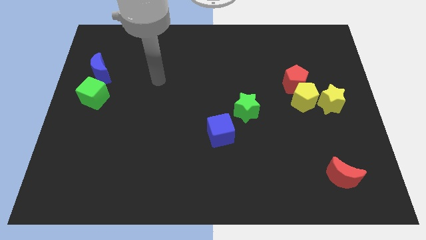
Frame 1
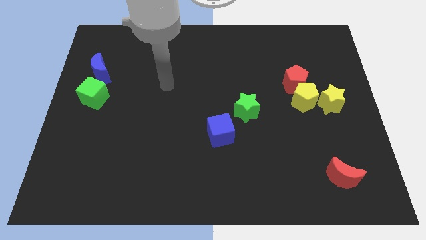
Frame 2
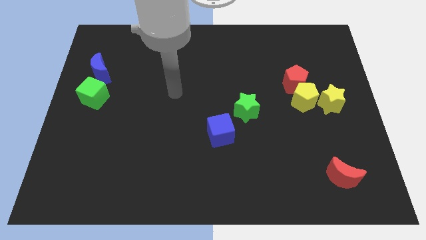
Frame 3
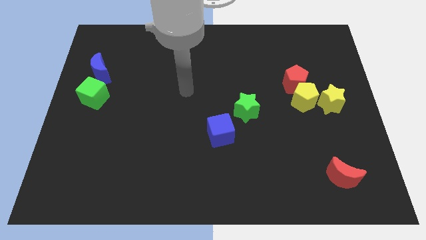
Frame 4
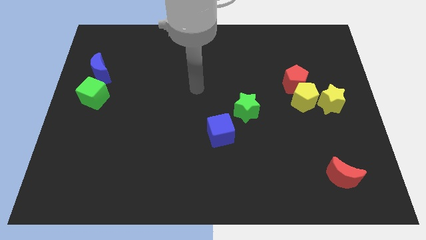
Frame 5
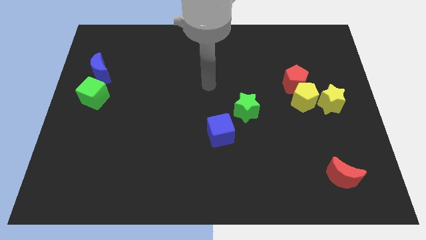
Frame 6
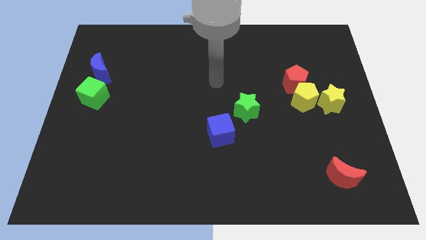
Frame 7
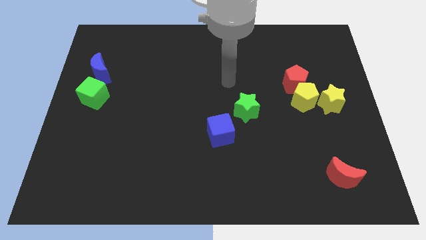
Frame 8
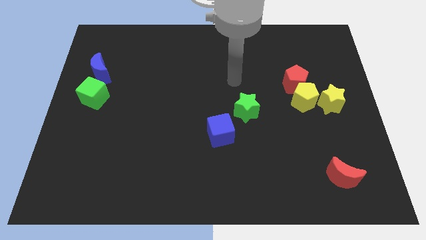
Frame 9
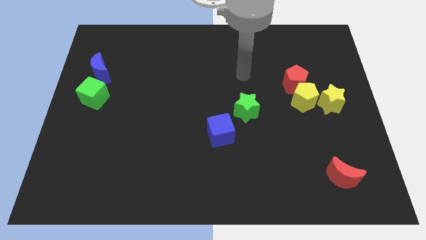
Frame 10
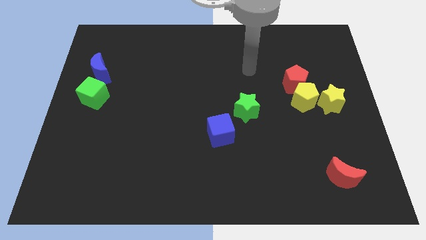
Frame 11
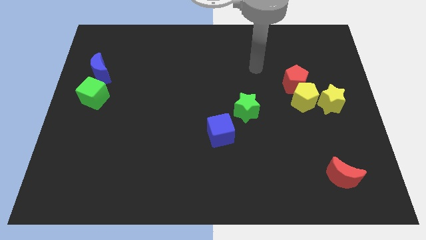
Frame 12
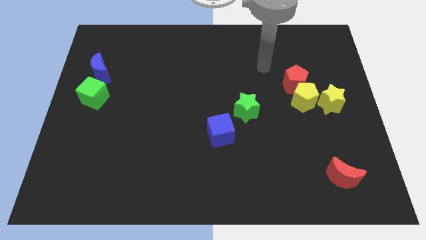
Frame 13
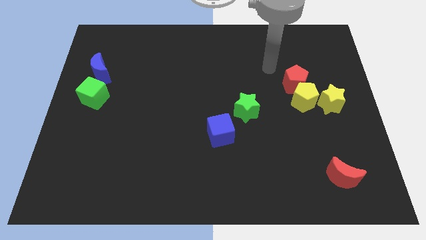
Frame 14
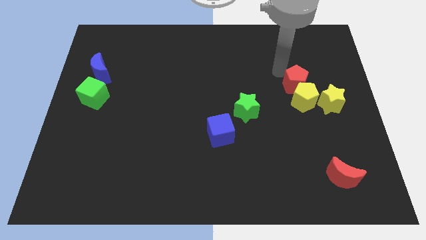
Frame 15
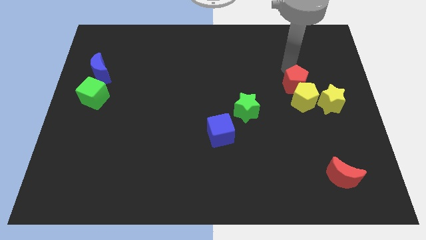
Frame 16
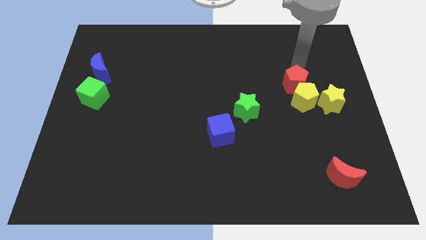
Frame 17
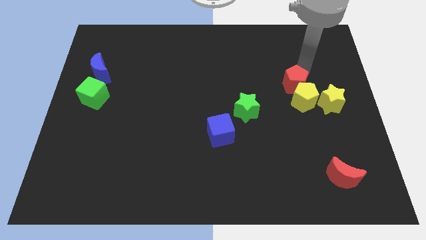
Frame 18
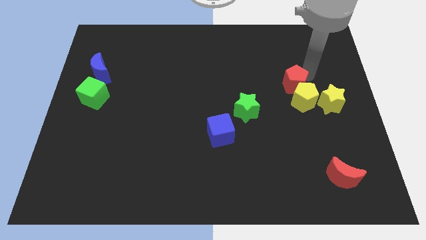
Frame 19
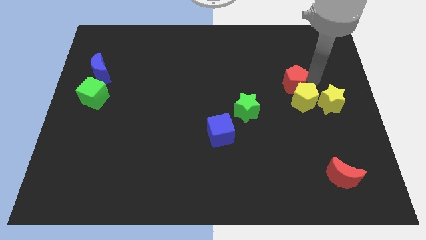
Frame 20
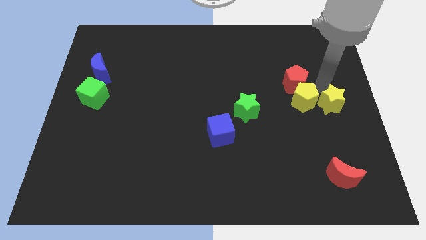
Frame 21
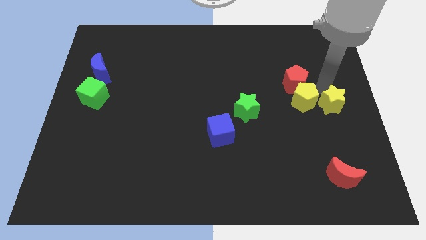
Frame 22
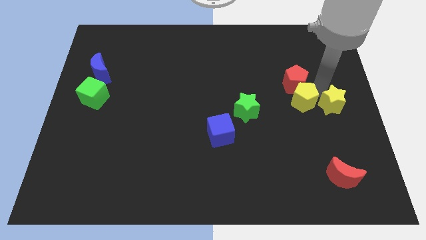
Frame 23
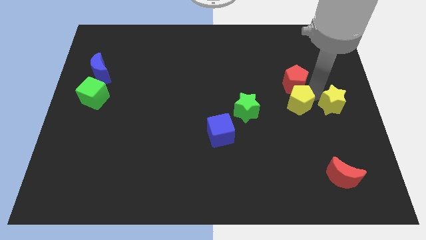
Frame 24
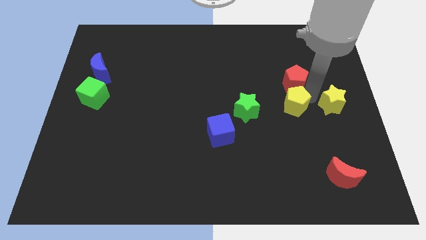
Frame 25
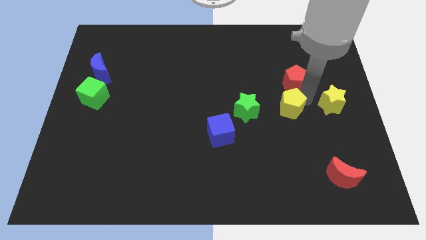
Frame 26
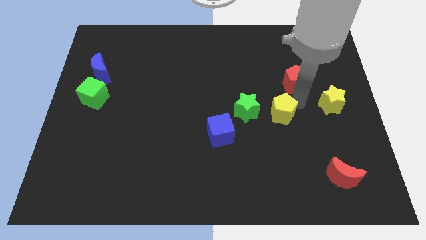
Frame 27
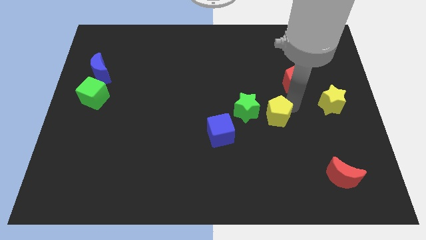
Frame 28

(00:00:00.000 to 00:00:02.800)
slightly slide the yellow pentagon diagonally down and left

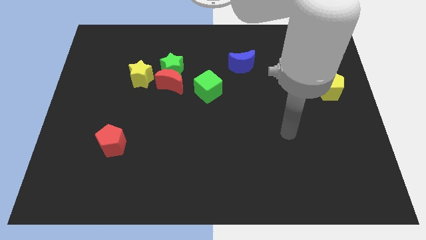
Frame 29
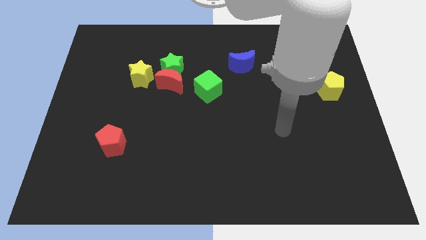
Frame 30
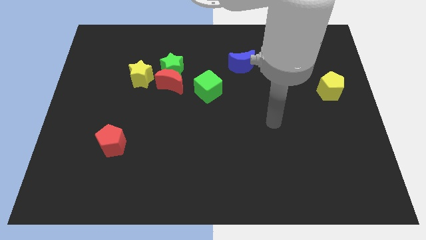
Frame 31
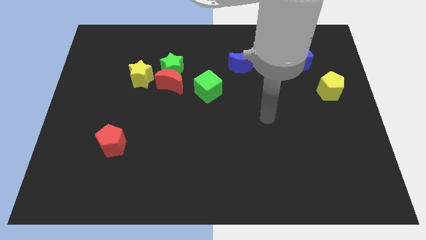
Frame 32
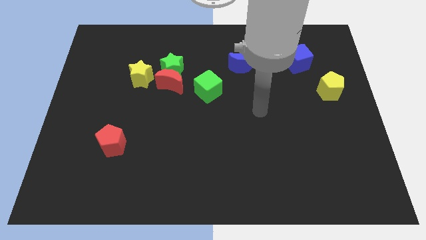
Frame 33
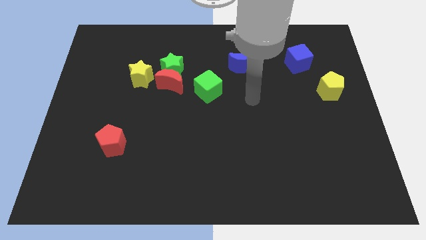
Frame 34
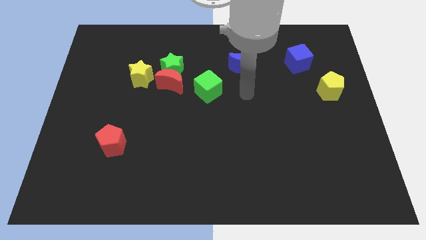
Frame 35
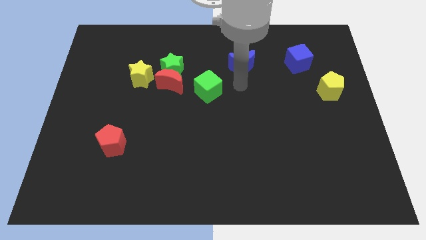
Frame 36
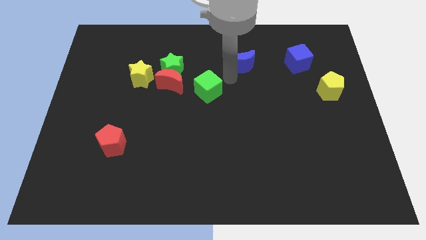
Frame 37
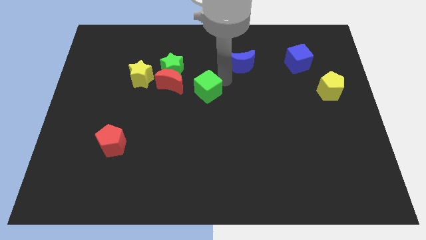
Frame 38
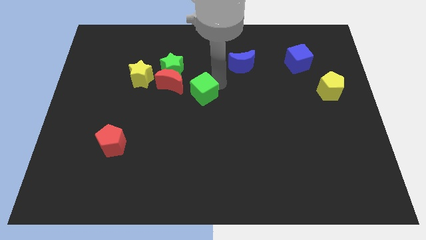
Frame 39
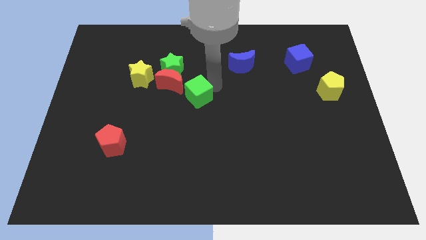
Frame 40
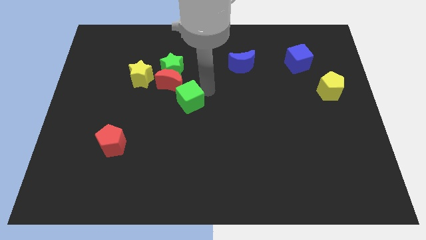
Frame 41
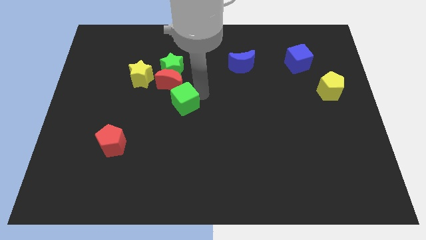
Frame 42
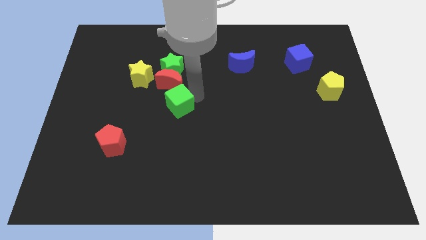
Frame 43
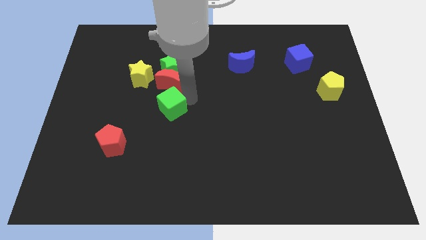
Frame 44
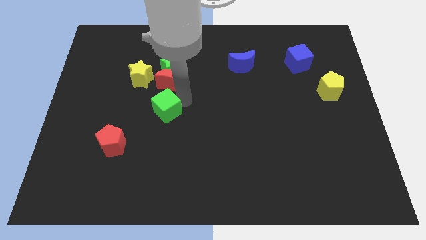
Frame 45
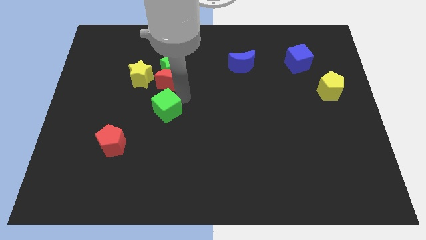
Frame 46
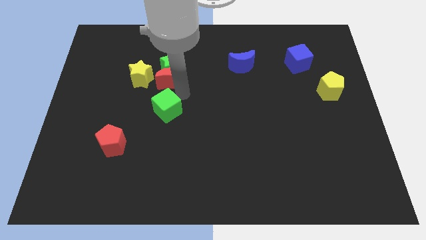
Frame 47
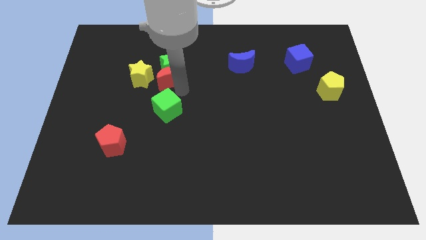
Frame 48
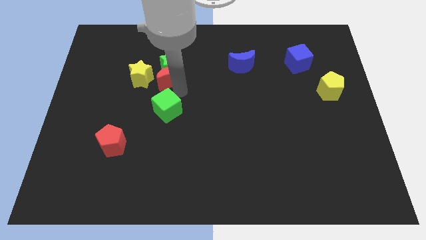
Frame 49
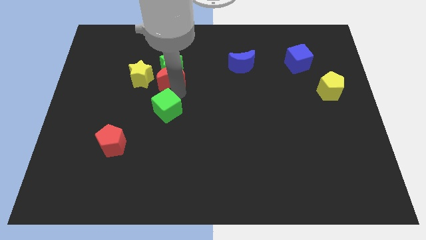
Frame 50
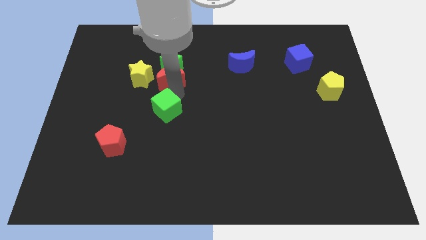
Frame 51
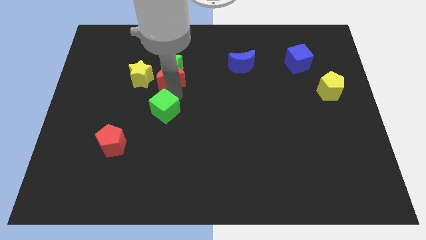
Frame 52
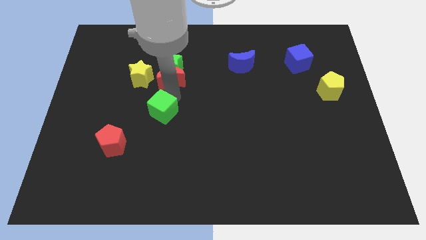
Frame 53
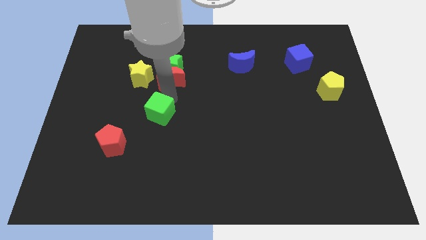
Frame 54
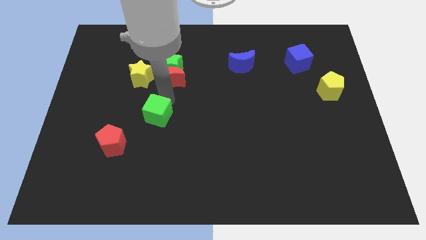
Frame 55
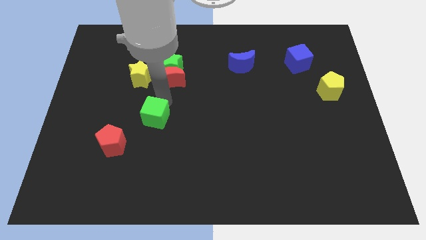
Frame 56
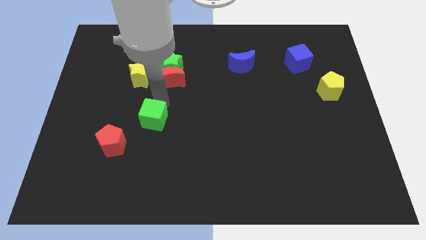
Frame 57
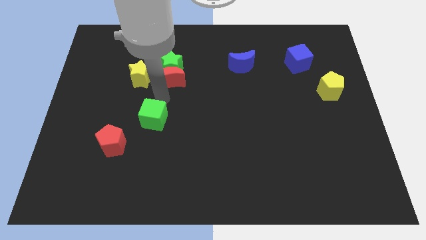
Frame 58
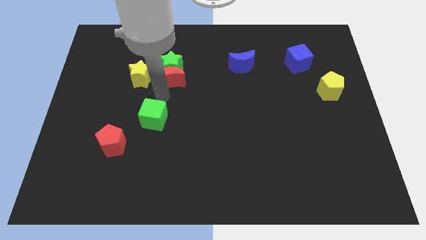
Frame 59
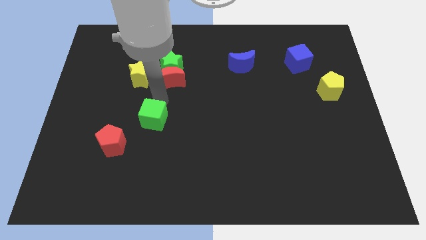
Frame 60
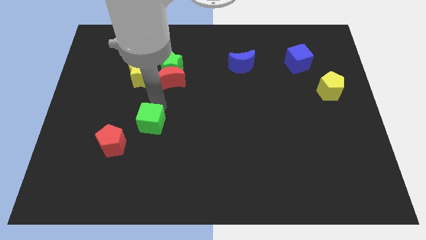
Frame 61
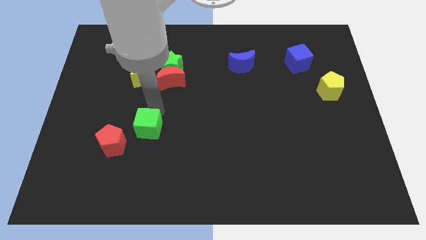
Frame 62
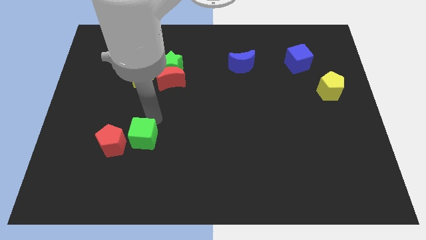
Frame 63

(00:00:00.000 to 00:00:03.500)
slide the green cube diagonally downwards and to the left

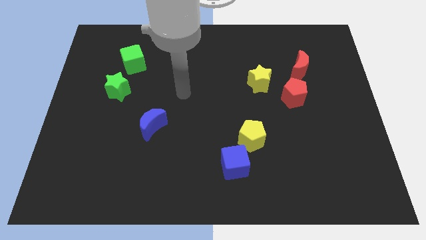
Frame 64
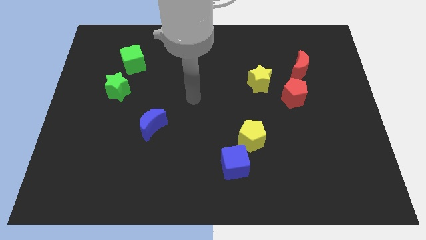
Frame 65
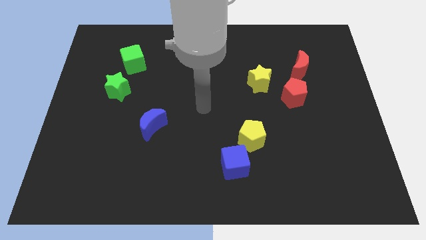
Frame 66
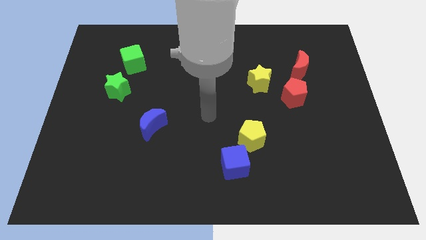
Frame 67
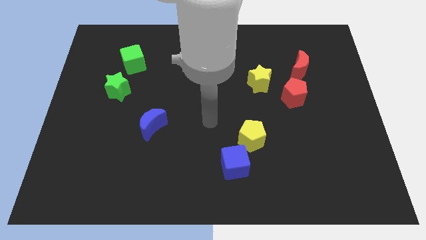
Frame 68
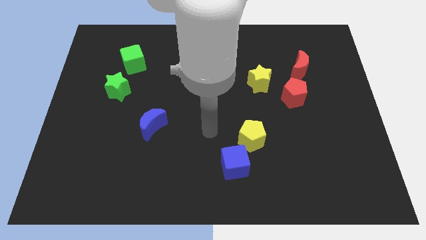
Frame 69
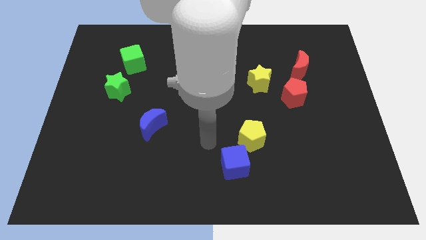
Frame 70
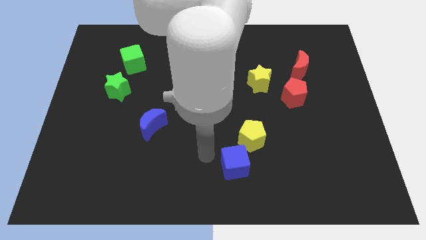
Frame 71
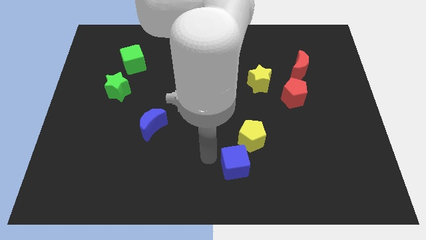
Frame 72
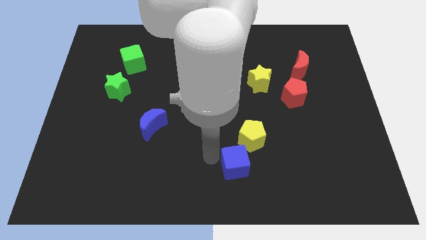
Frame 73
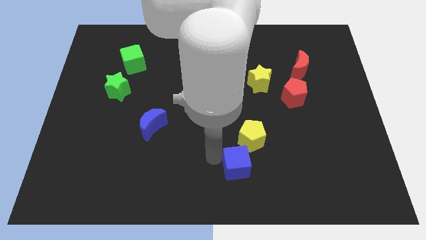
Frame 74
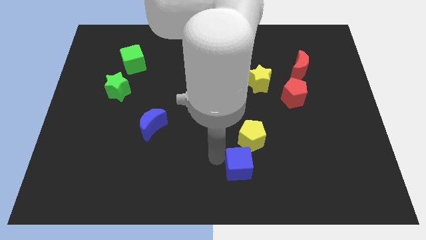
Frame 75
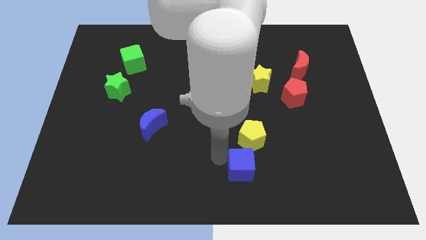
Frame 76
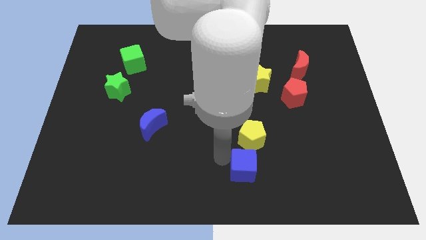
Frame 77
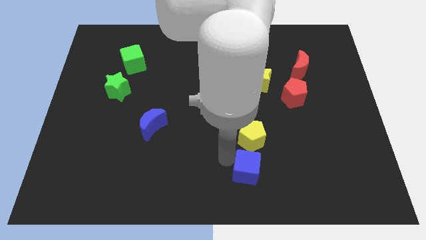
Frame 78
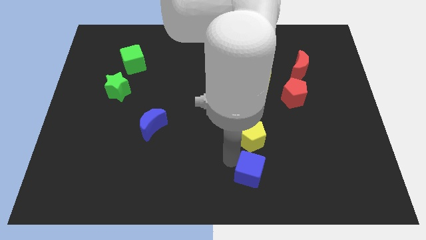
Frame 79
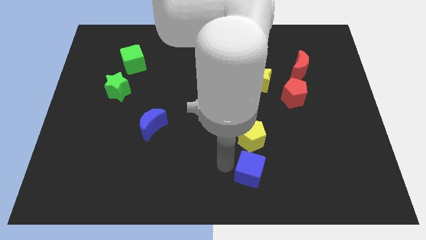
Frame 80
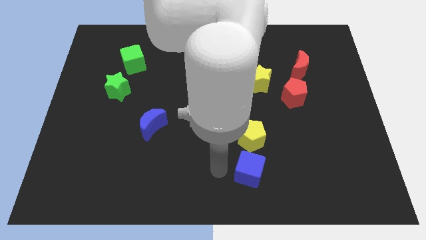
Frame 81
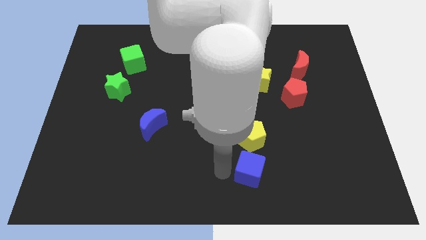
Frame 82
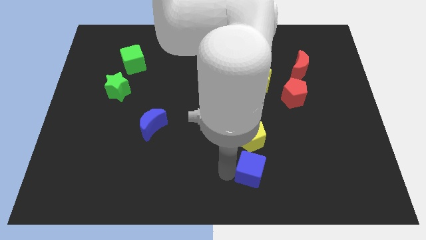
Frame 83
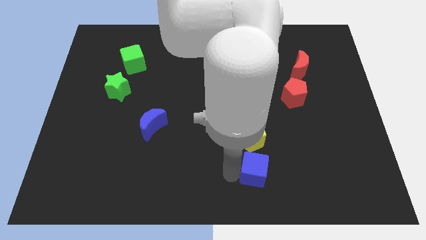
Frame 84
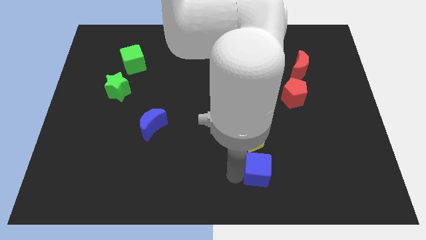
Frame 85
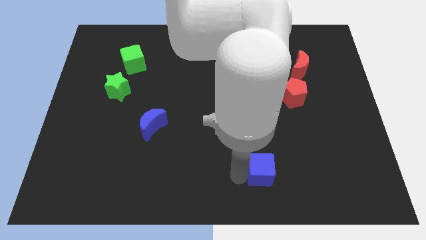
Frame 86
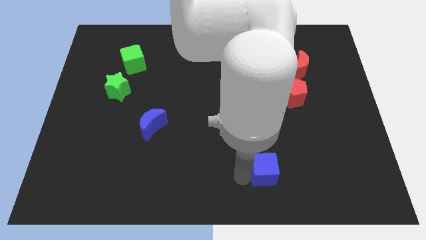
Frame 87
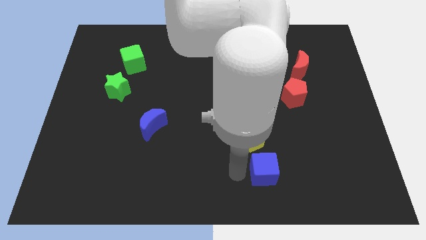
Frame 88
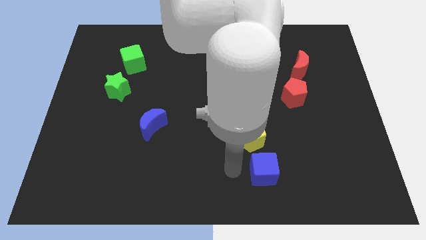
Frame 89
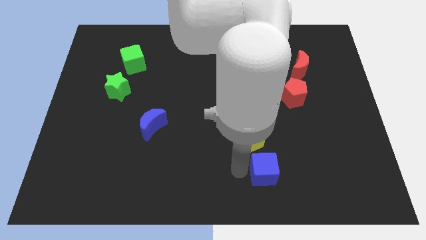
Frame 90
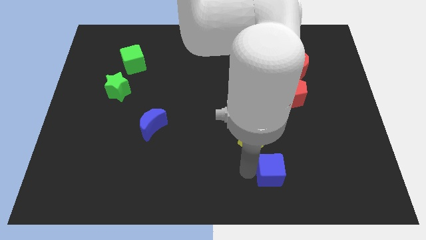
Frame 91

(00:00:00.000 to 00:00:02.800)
slide the blue cube right a little
